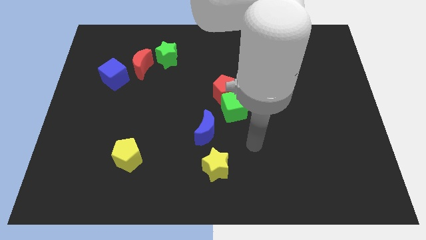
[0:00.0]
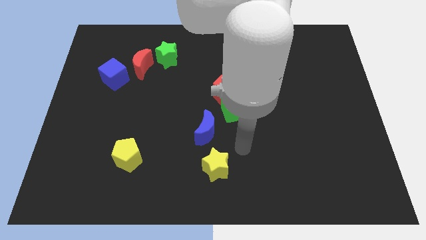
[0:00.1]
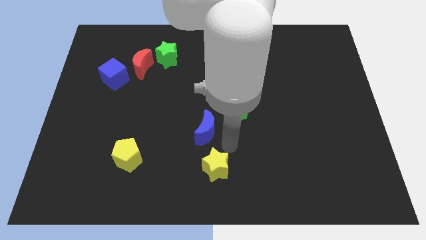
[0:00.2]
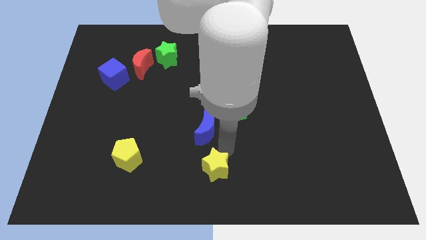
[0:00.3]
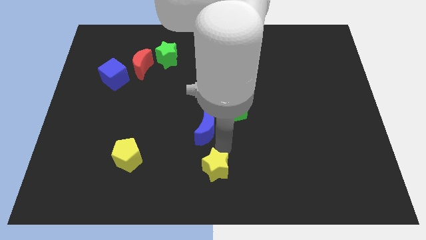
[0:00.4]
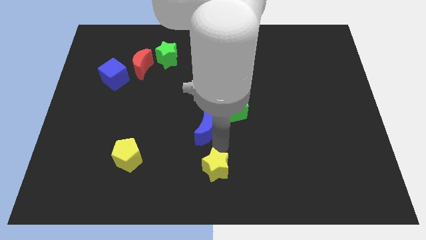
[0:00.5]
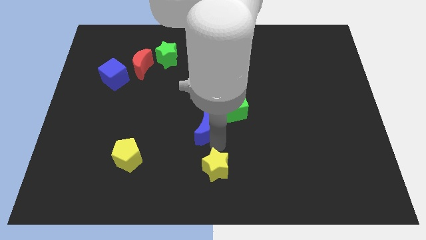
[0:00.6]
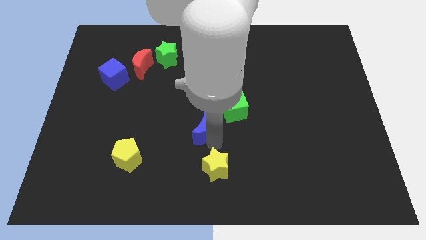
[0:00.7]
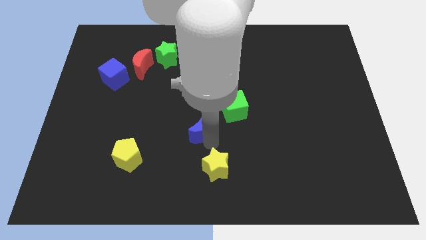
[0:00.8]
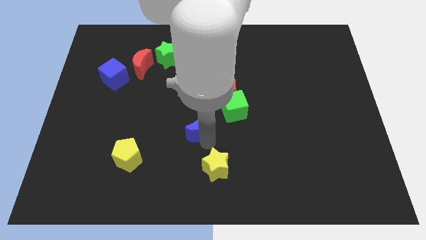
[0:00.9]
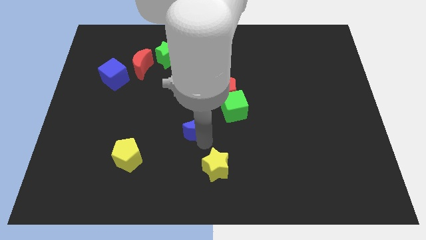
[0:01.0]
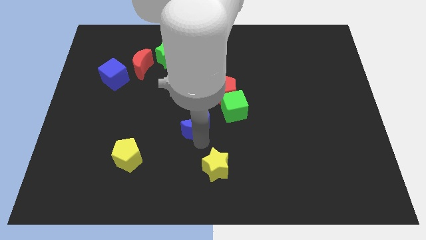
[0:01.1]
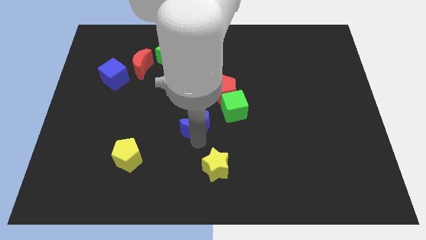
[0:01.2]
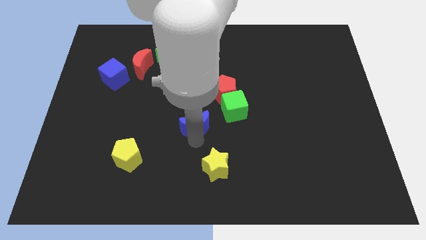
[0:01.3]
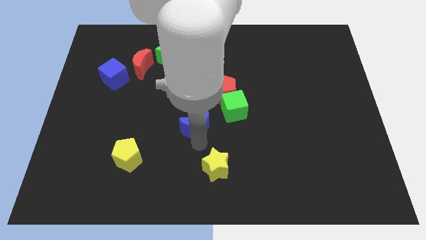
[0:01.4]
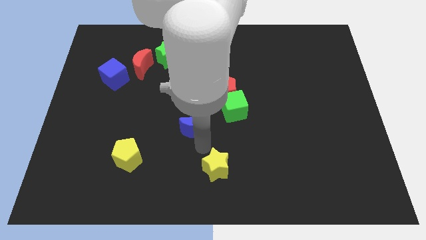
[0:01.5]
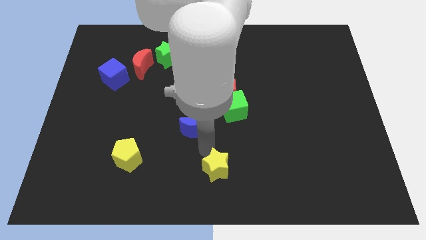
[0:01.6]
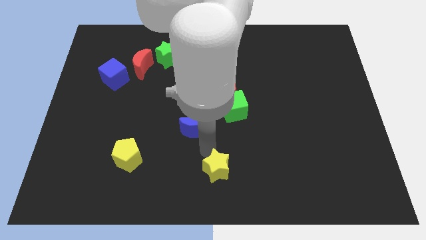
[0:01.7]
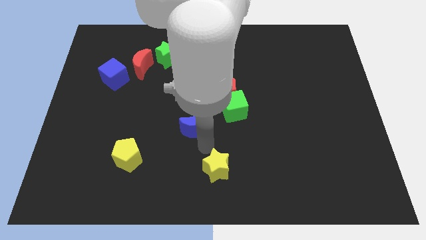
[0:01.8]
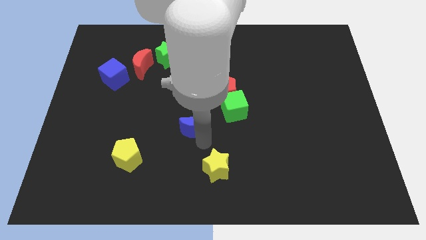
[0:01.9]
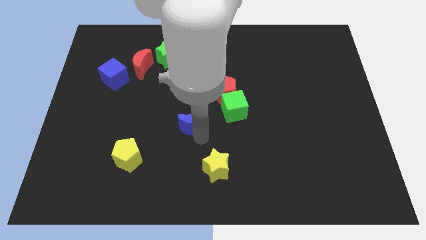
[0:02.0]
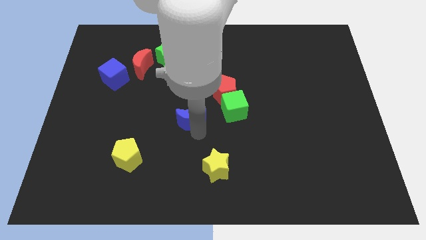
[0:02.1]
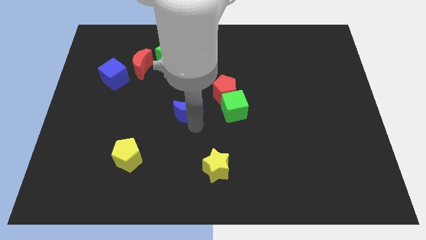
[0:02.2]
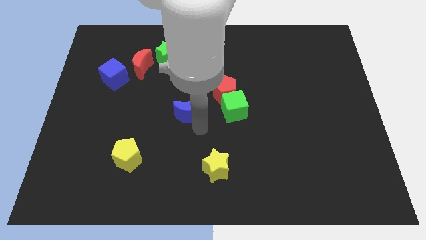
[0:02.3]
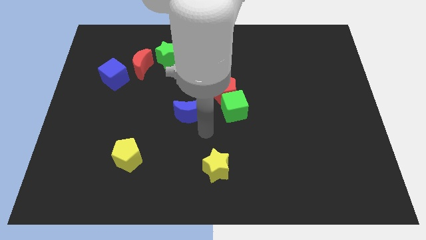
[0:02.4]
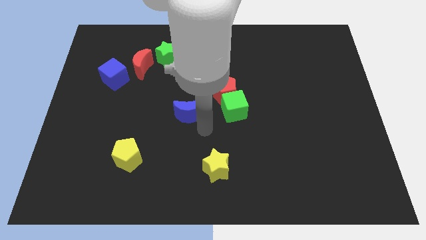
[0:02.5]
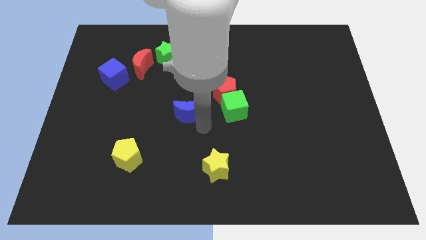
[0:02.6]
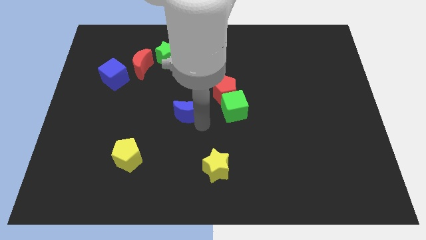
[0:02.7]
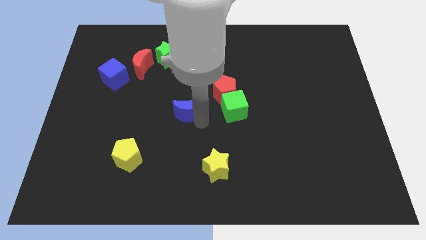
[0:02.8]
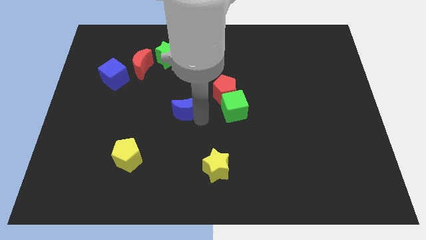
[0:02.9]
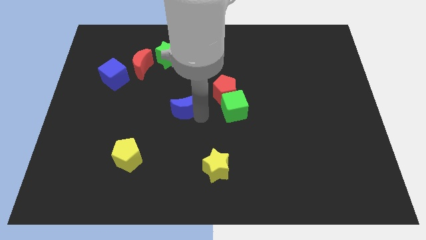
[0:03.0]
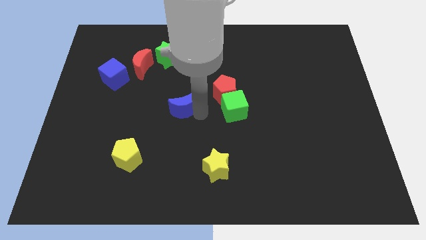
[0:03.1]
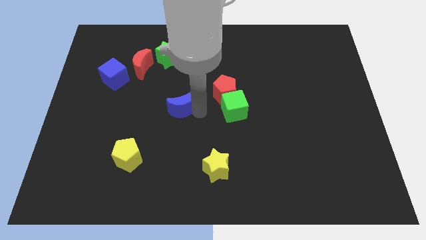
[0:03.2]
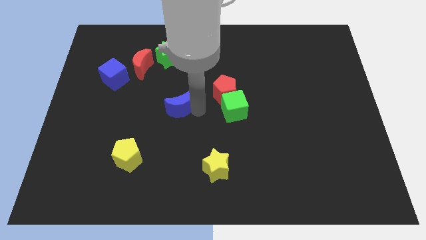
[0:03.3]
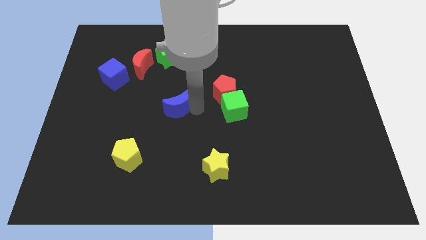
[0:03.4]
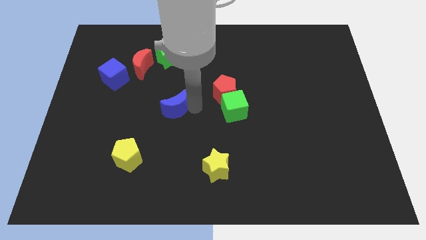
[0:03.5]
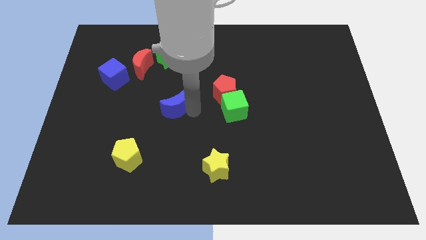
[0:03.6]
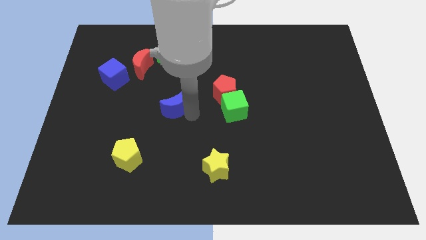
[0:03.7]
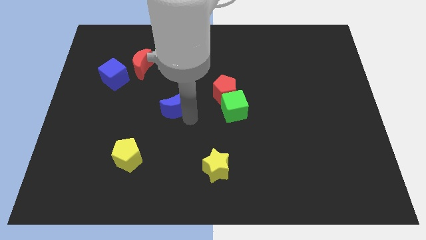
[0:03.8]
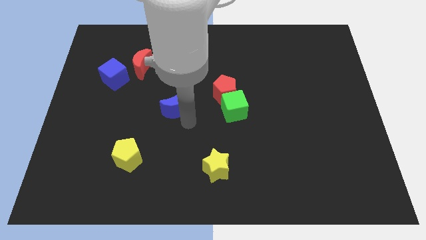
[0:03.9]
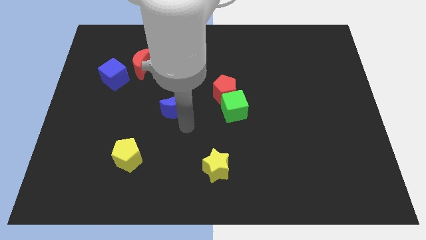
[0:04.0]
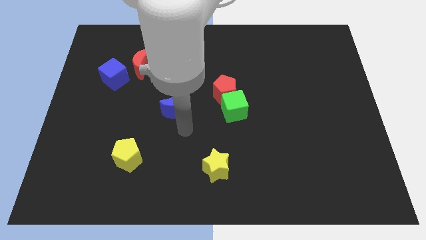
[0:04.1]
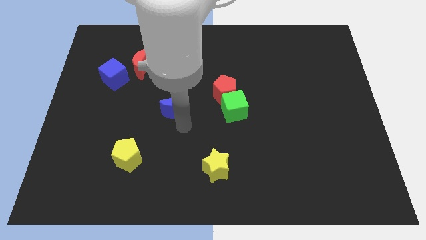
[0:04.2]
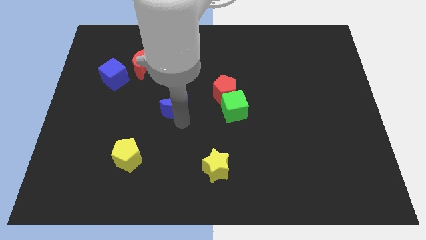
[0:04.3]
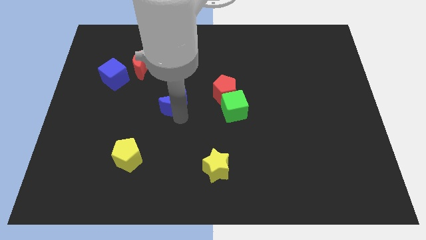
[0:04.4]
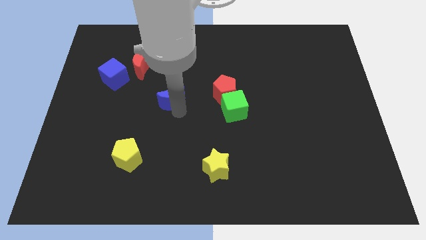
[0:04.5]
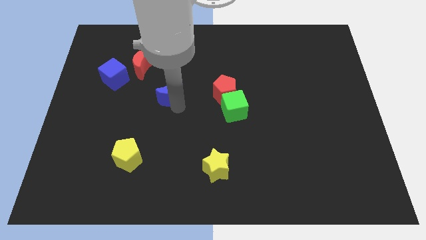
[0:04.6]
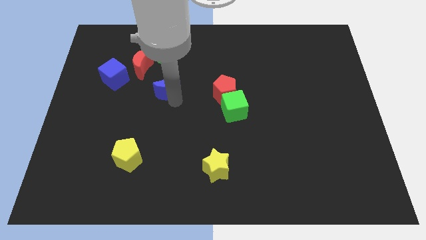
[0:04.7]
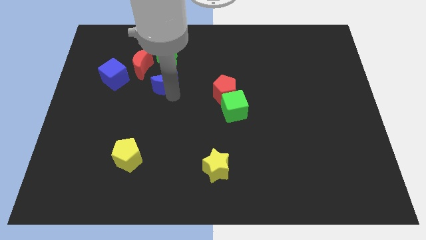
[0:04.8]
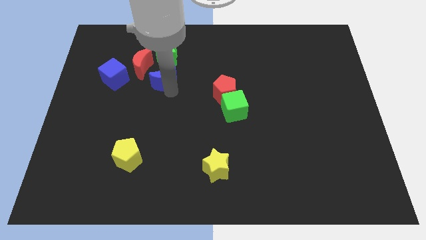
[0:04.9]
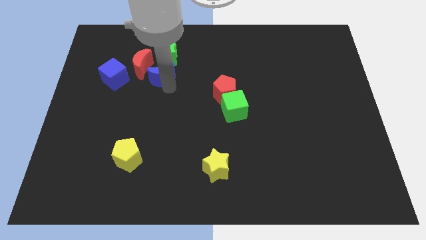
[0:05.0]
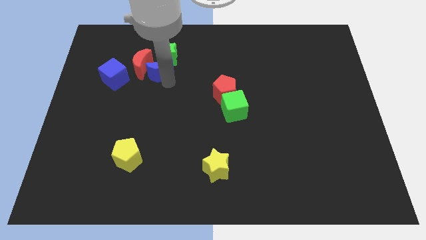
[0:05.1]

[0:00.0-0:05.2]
slide the blue moon next to the red moon

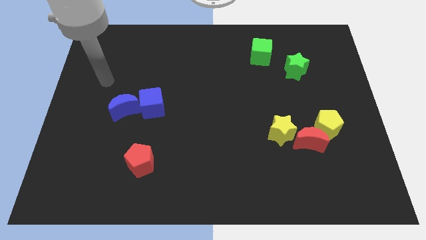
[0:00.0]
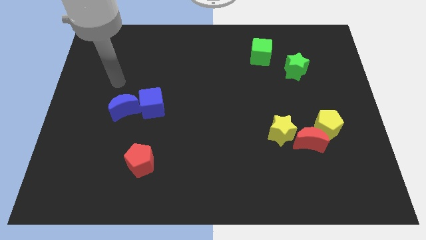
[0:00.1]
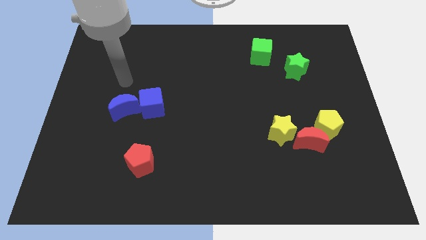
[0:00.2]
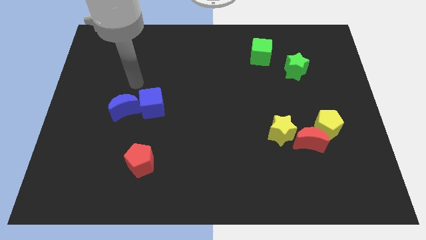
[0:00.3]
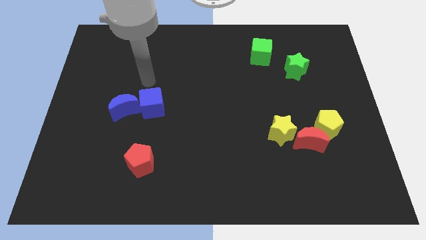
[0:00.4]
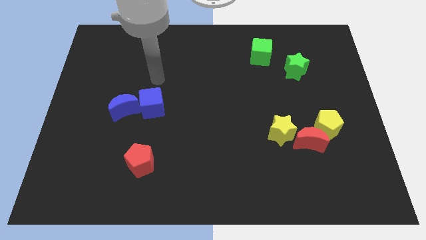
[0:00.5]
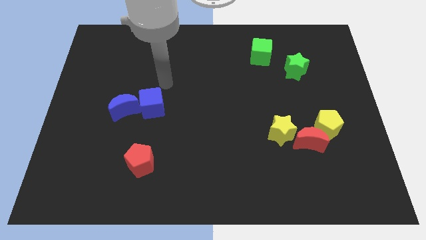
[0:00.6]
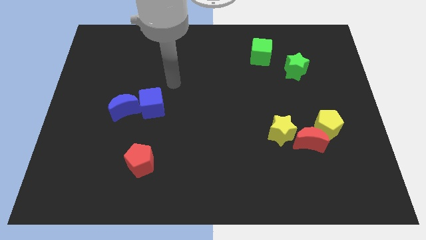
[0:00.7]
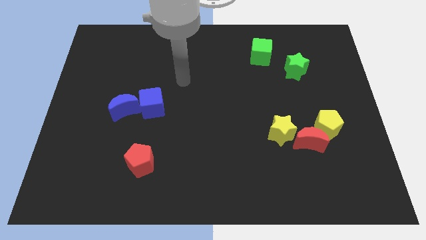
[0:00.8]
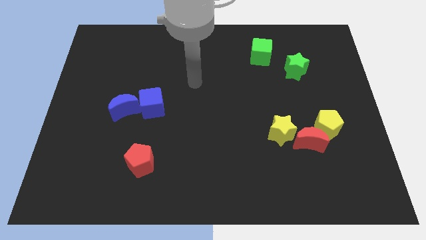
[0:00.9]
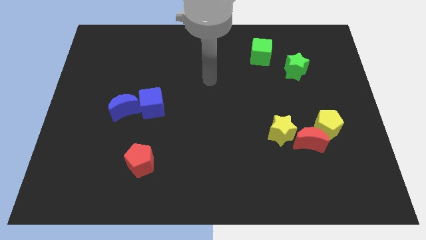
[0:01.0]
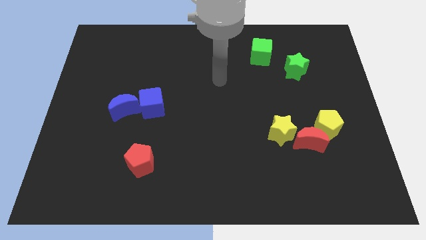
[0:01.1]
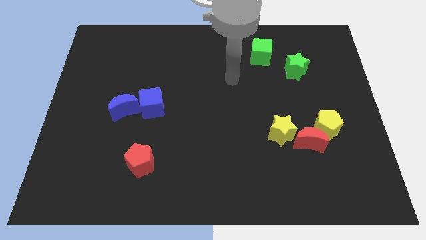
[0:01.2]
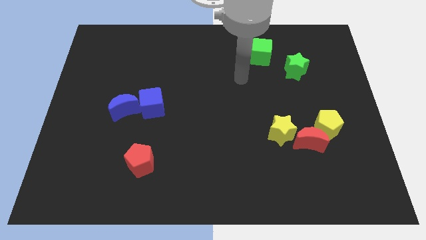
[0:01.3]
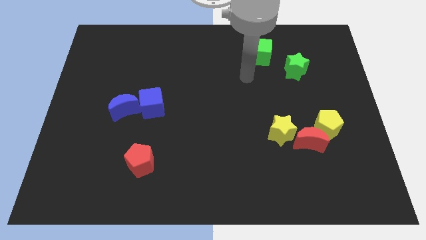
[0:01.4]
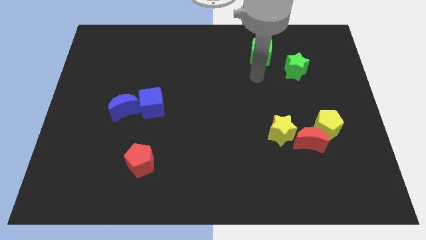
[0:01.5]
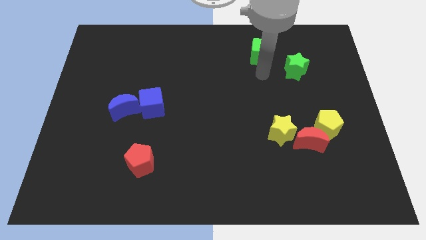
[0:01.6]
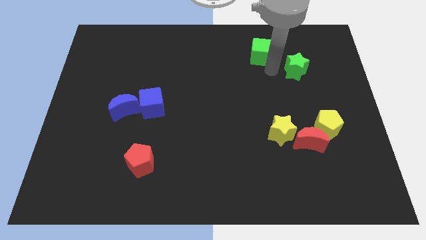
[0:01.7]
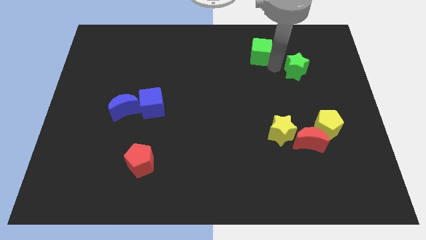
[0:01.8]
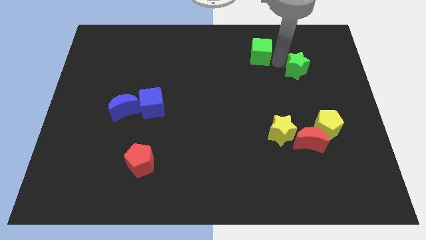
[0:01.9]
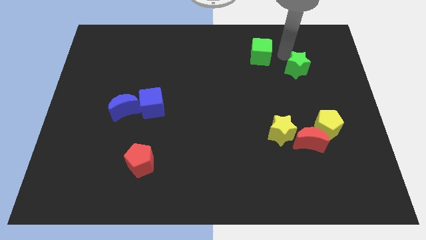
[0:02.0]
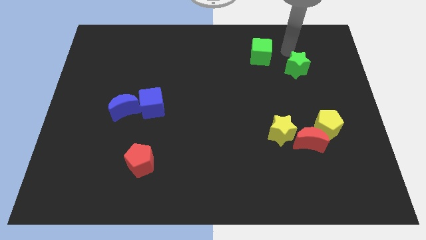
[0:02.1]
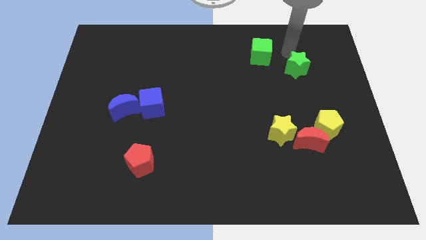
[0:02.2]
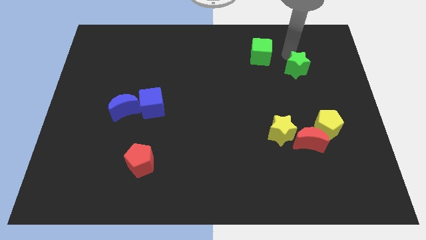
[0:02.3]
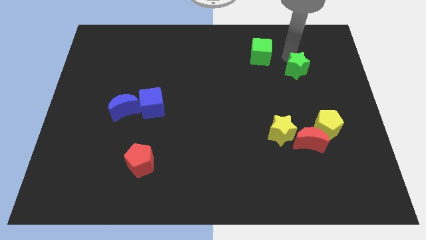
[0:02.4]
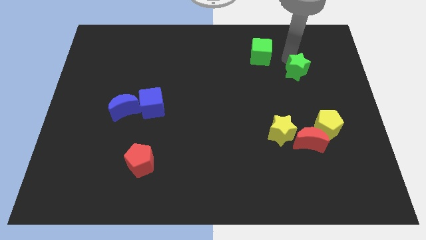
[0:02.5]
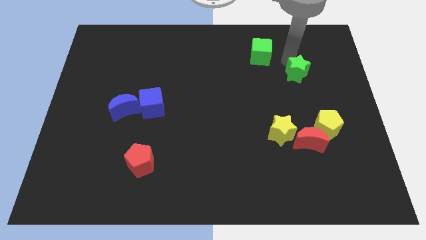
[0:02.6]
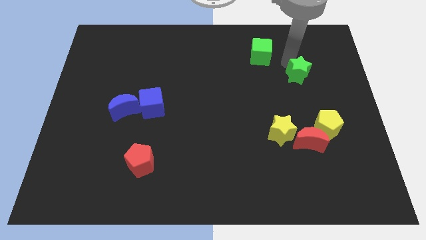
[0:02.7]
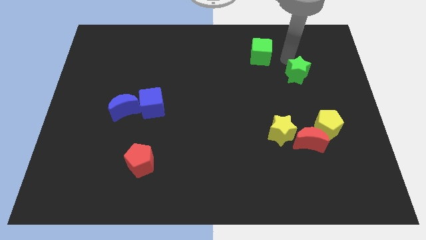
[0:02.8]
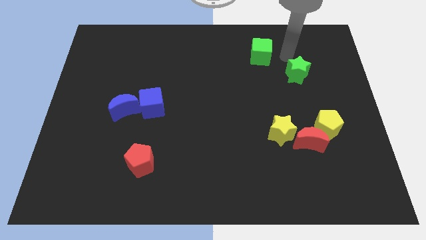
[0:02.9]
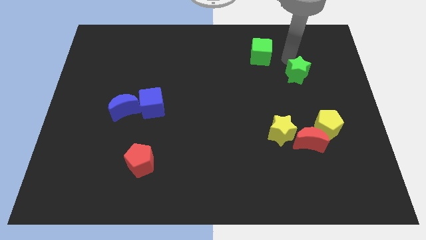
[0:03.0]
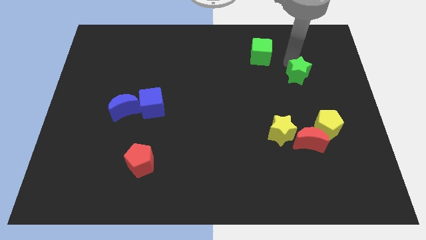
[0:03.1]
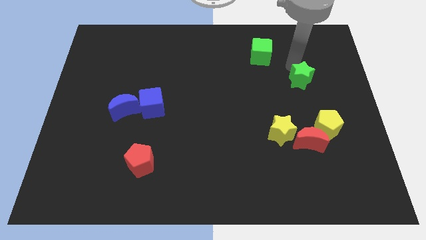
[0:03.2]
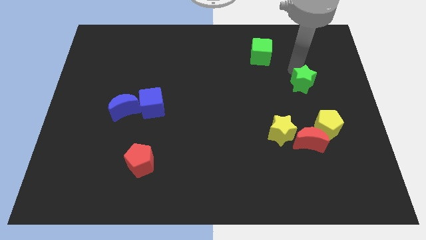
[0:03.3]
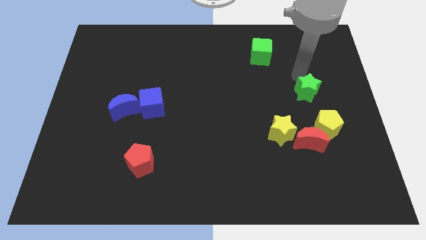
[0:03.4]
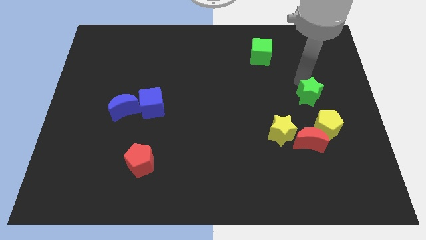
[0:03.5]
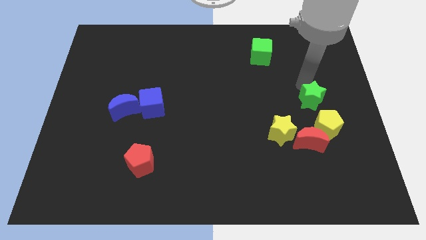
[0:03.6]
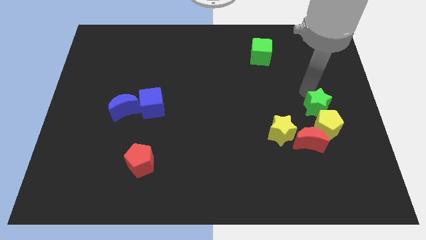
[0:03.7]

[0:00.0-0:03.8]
push the green star next to the yellow pentagon
